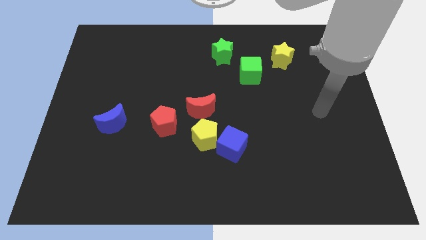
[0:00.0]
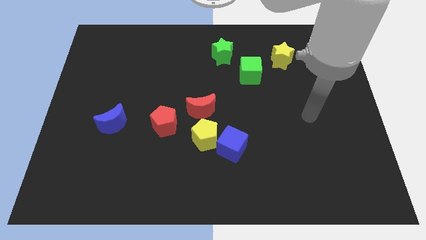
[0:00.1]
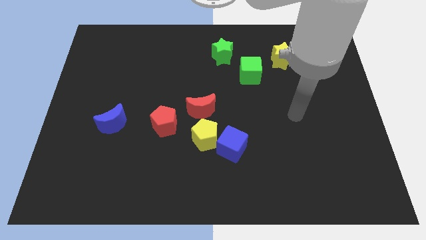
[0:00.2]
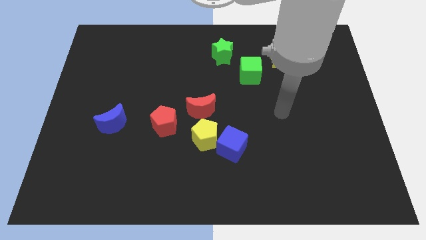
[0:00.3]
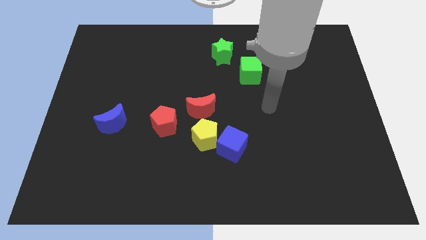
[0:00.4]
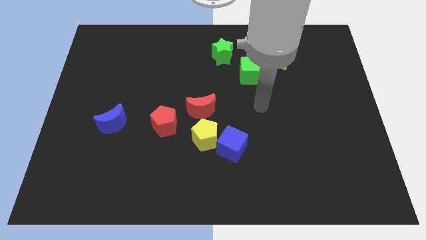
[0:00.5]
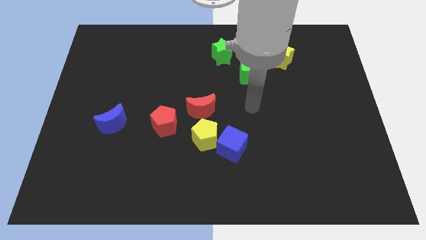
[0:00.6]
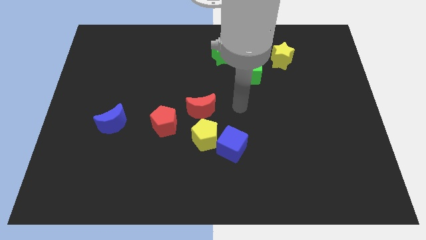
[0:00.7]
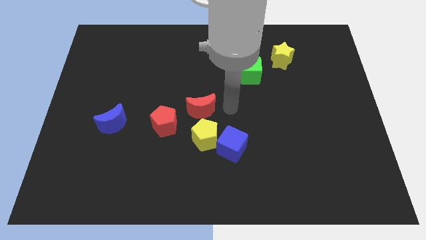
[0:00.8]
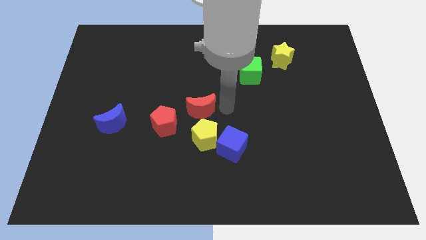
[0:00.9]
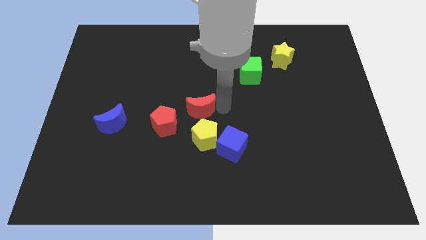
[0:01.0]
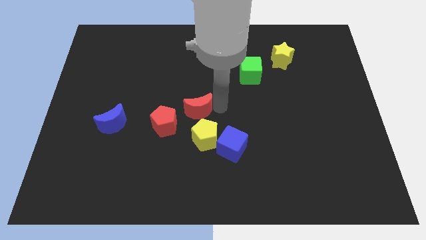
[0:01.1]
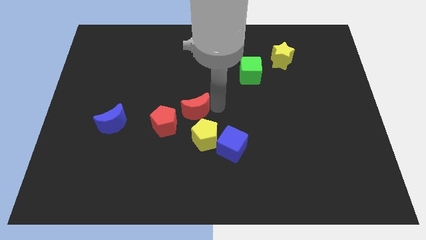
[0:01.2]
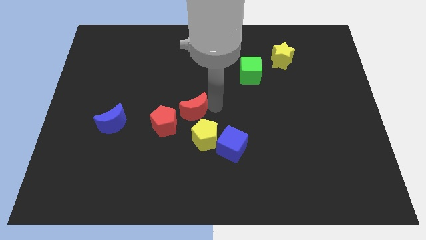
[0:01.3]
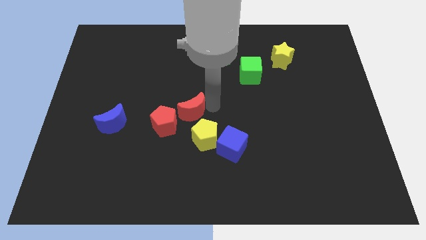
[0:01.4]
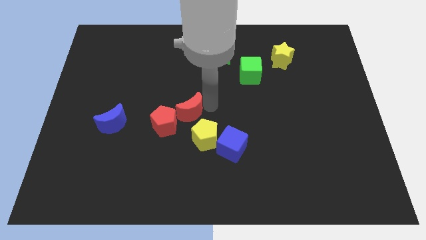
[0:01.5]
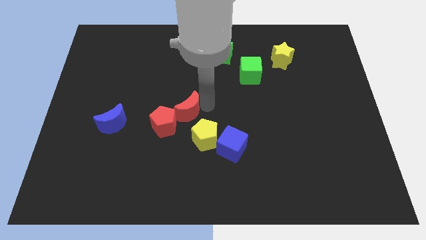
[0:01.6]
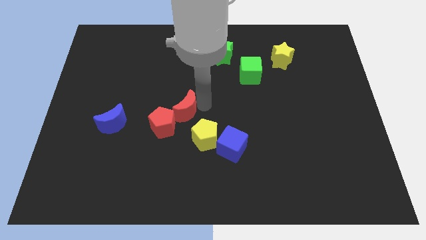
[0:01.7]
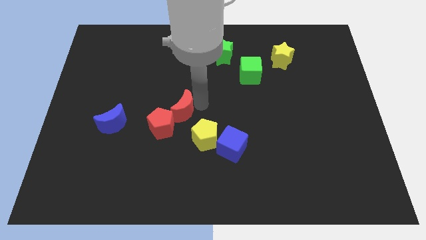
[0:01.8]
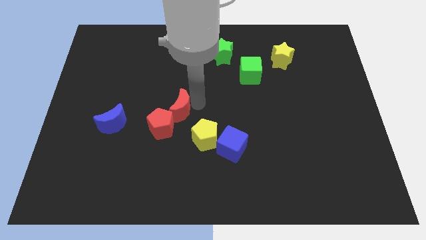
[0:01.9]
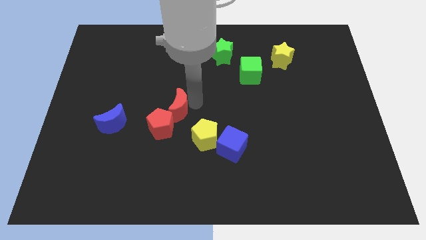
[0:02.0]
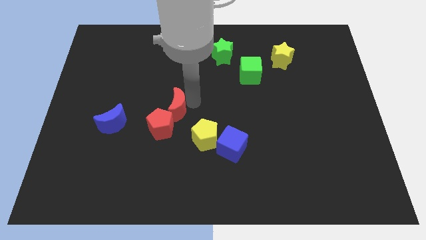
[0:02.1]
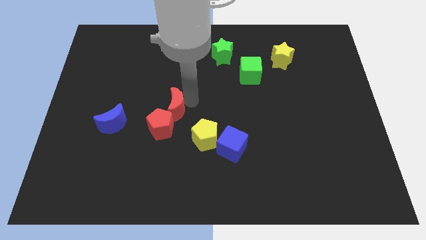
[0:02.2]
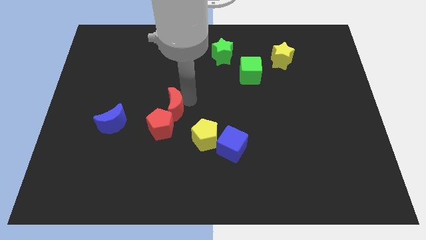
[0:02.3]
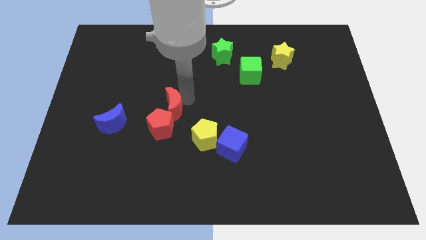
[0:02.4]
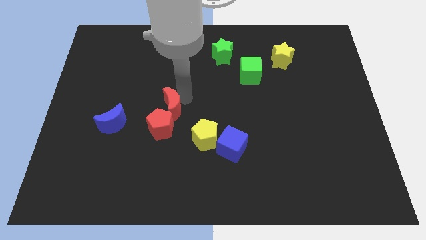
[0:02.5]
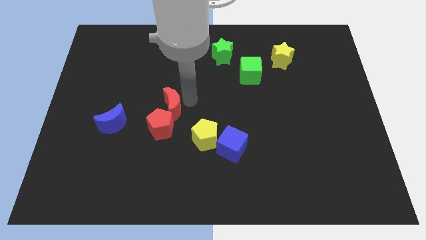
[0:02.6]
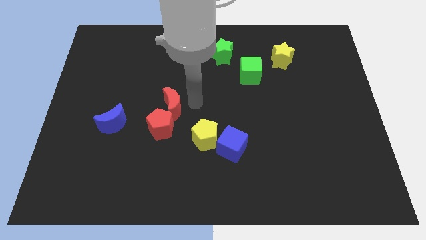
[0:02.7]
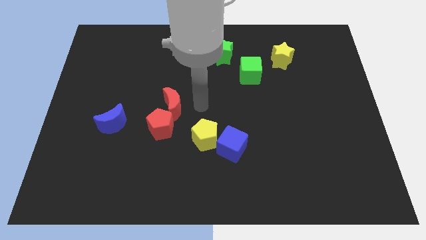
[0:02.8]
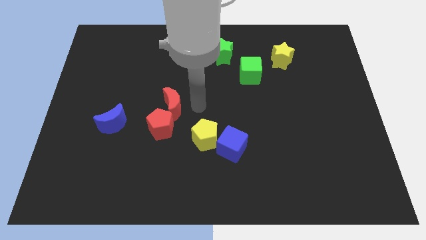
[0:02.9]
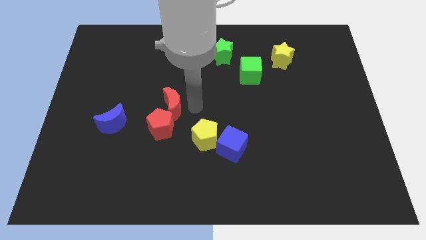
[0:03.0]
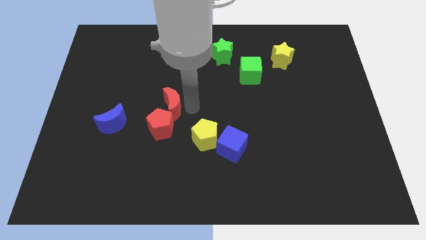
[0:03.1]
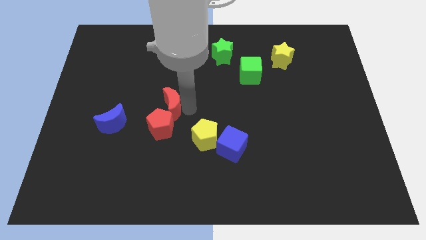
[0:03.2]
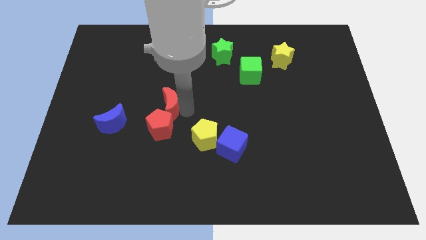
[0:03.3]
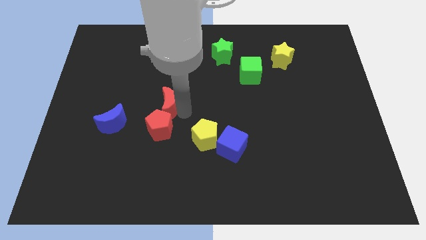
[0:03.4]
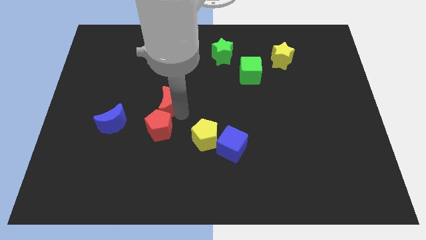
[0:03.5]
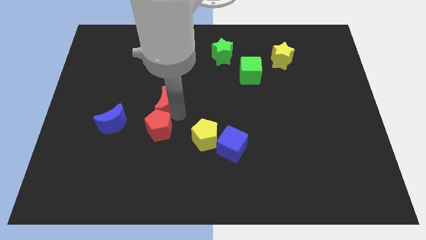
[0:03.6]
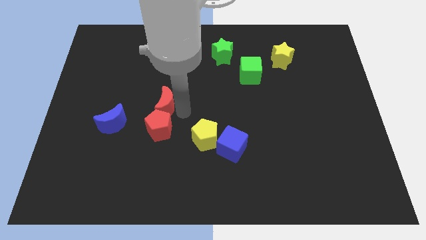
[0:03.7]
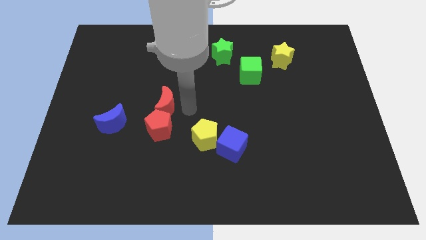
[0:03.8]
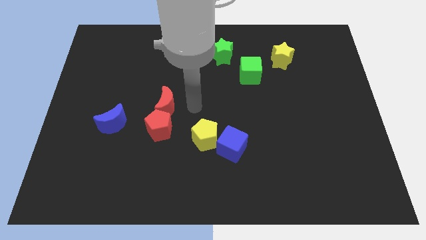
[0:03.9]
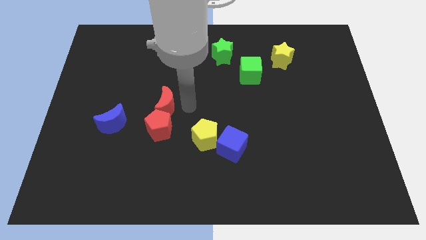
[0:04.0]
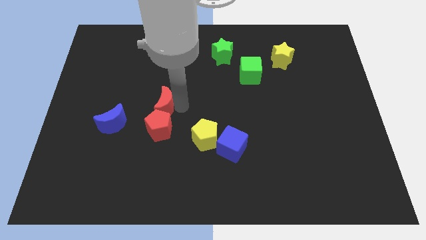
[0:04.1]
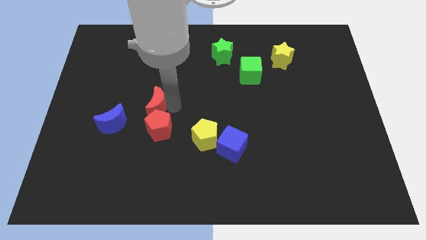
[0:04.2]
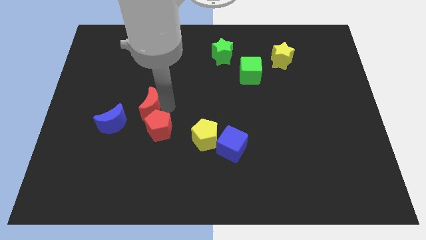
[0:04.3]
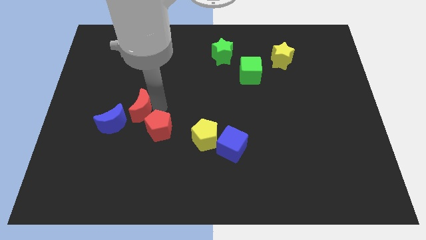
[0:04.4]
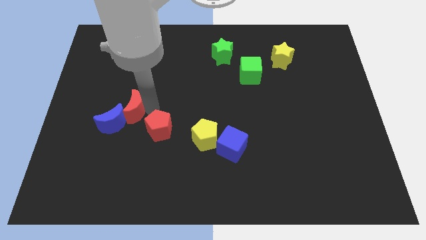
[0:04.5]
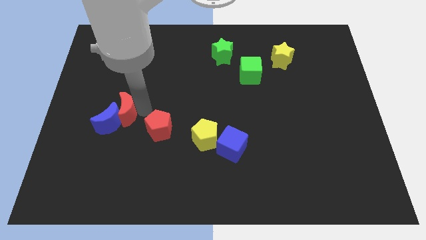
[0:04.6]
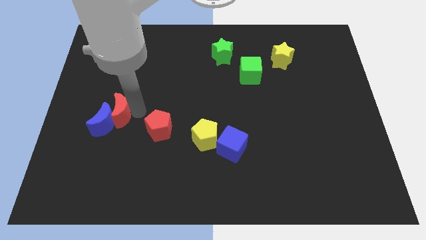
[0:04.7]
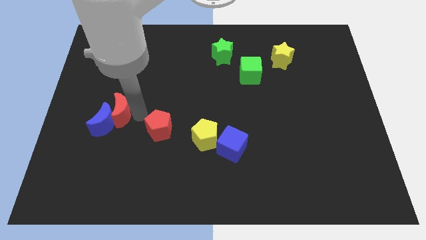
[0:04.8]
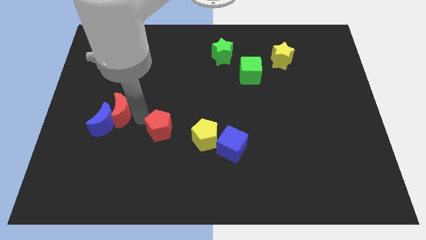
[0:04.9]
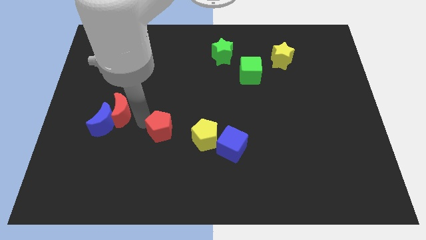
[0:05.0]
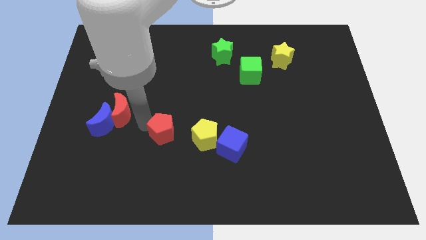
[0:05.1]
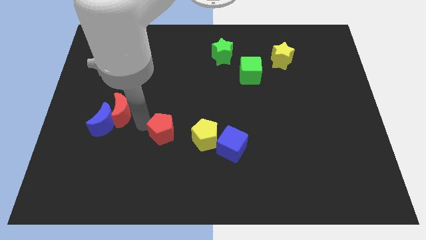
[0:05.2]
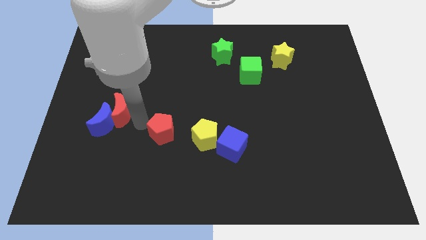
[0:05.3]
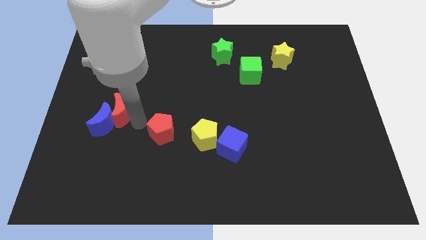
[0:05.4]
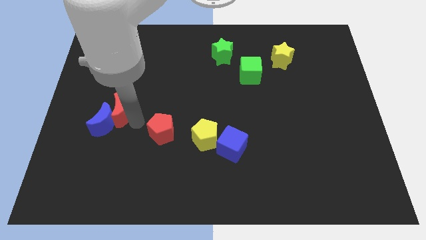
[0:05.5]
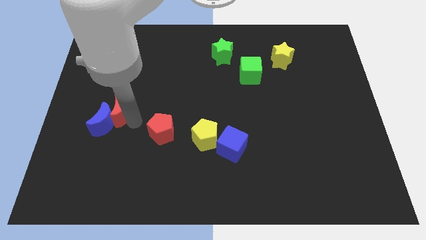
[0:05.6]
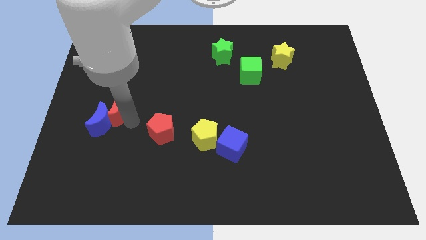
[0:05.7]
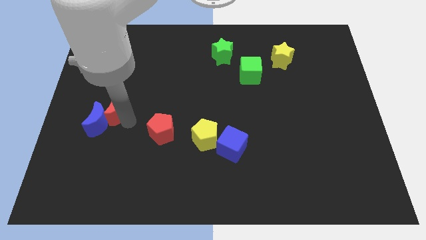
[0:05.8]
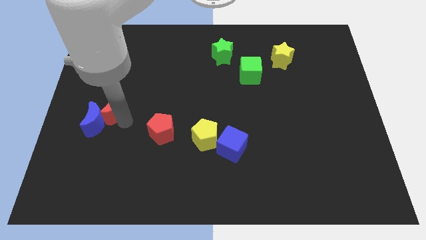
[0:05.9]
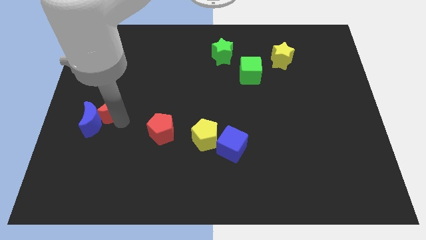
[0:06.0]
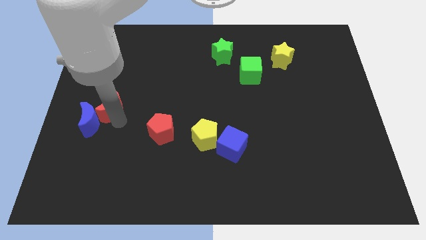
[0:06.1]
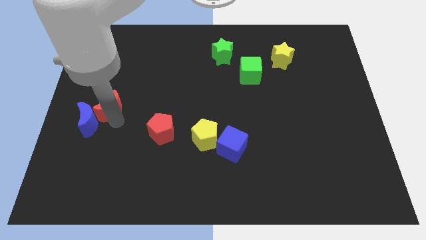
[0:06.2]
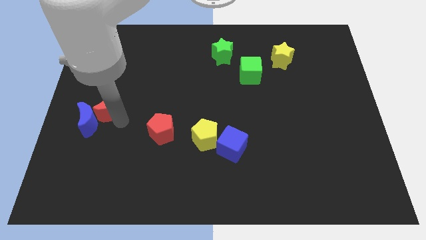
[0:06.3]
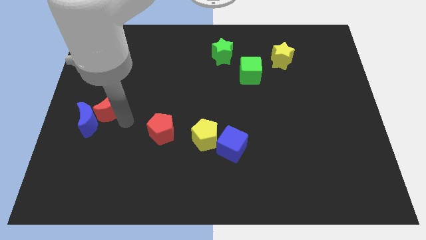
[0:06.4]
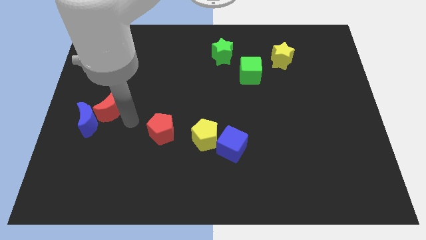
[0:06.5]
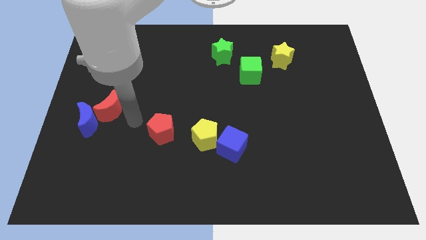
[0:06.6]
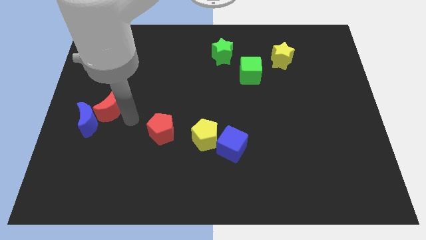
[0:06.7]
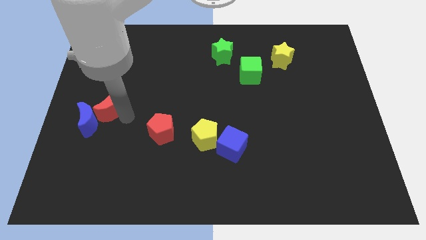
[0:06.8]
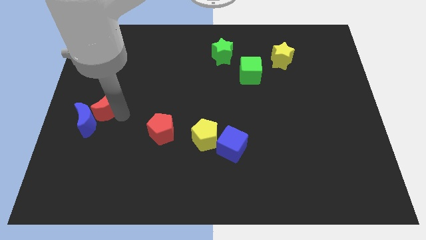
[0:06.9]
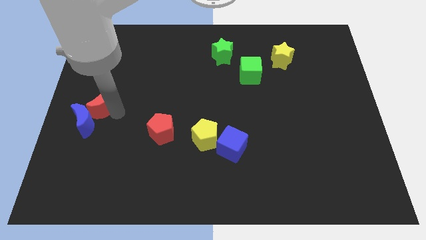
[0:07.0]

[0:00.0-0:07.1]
push the red moon to the center left
